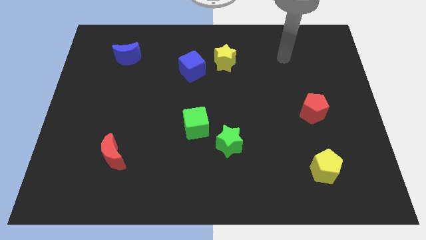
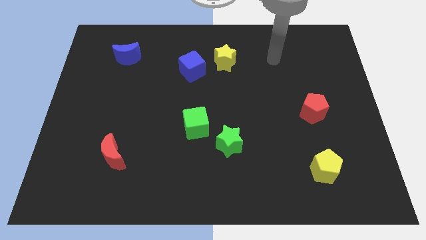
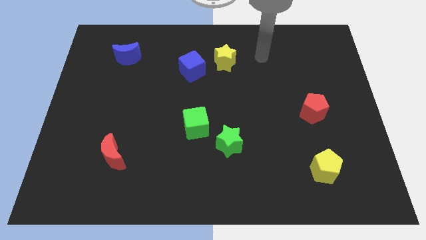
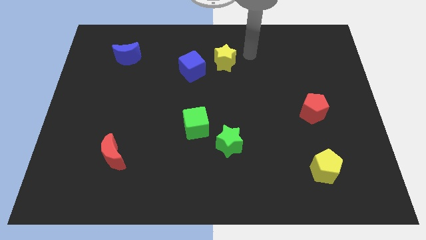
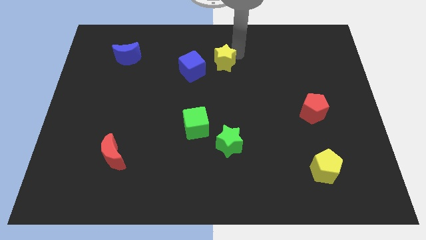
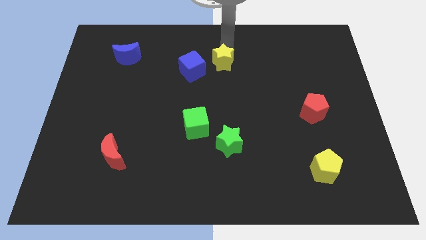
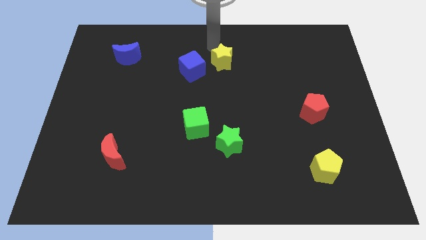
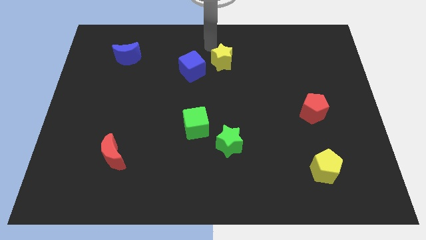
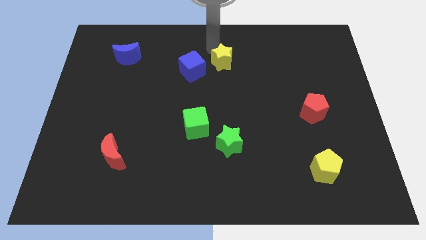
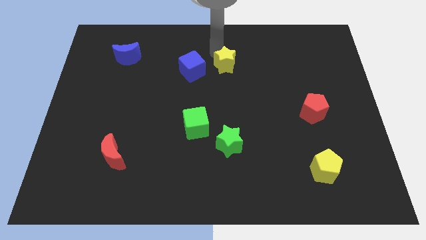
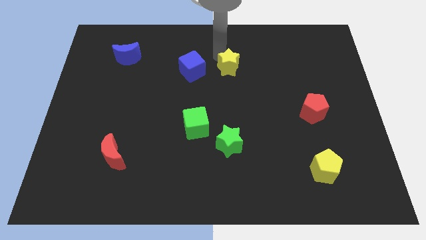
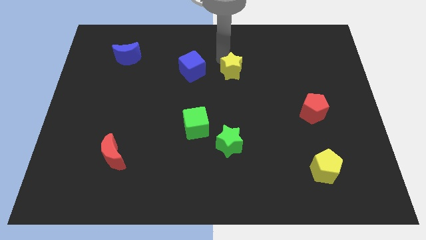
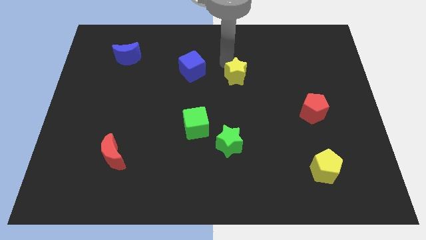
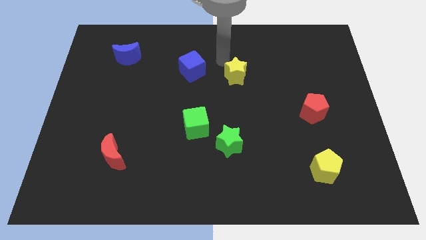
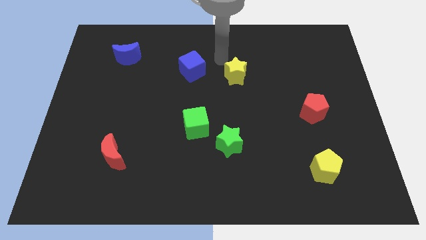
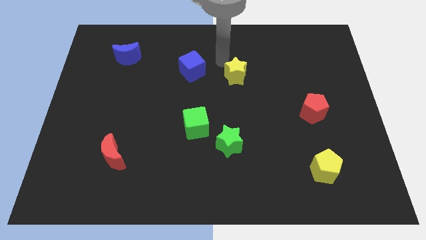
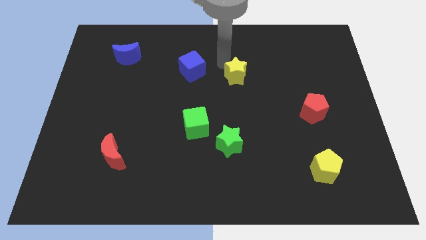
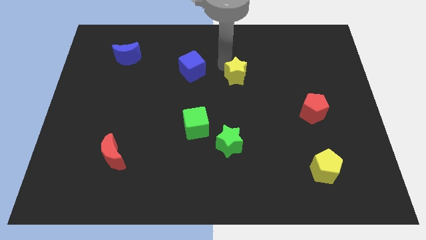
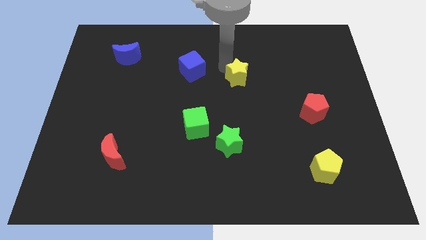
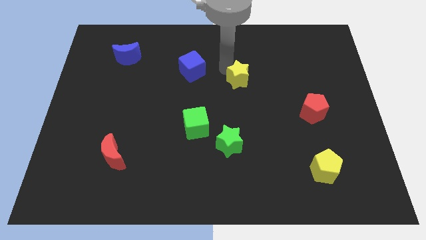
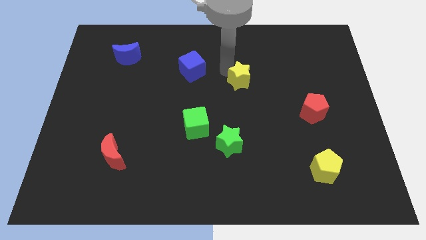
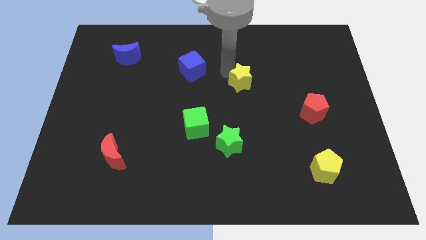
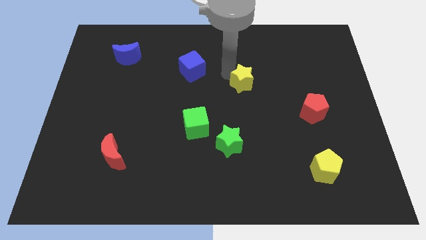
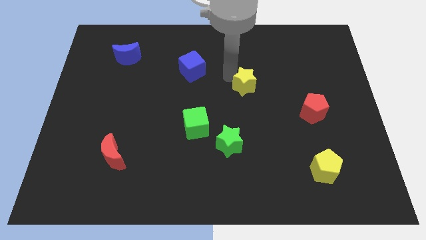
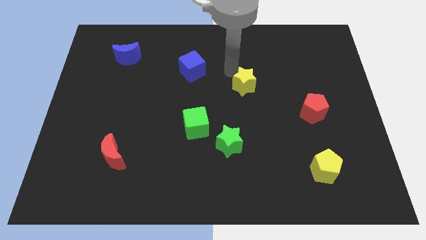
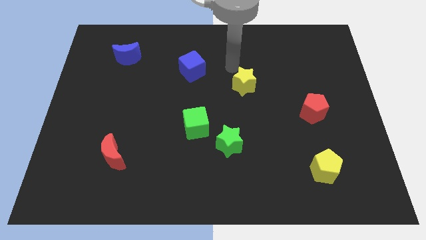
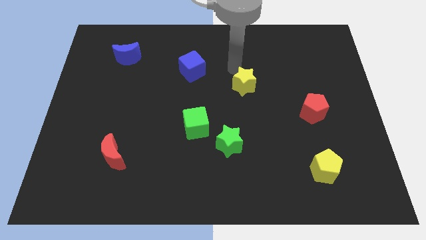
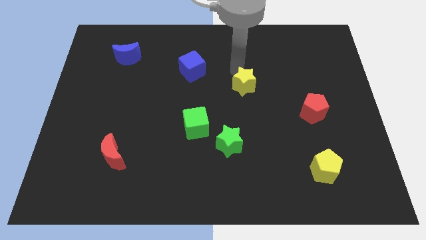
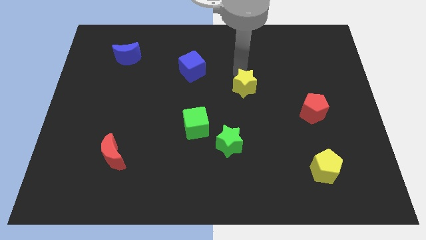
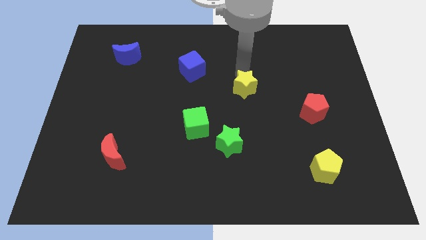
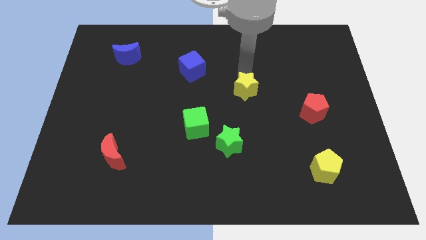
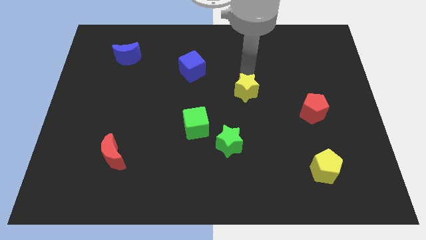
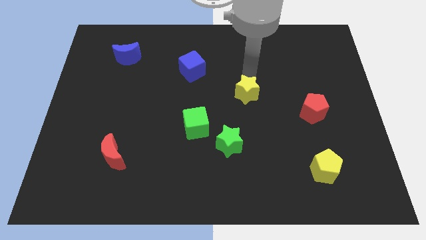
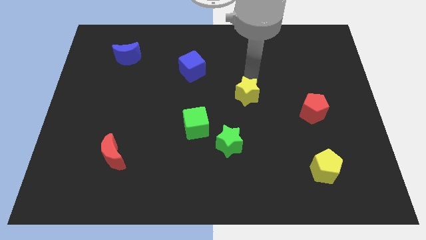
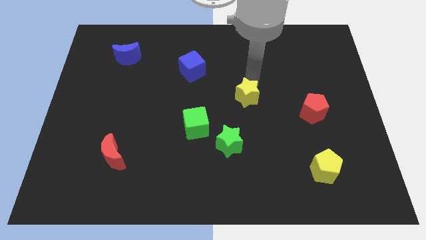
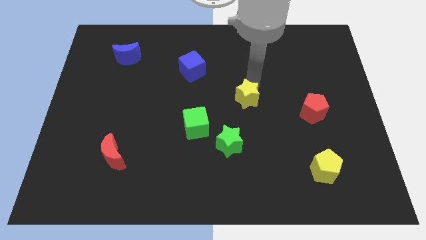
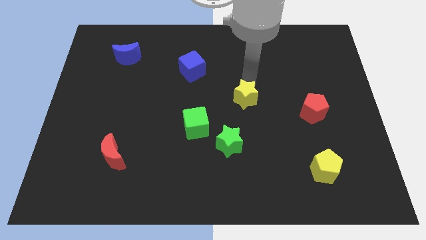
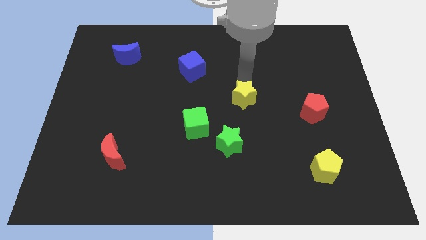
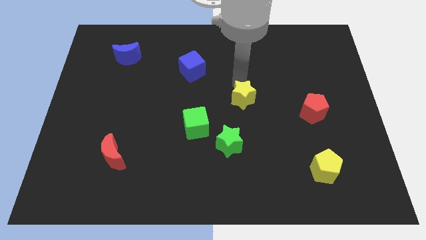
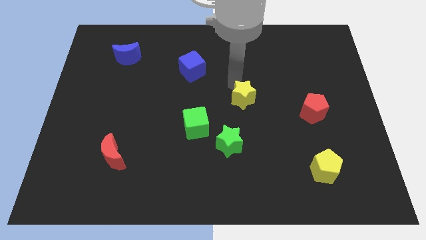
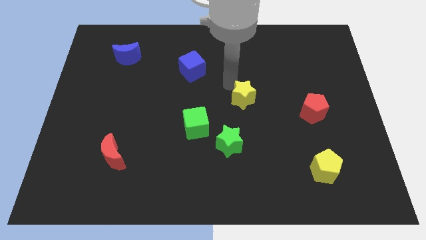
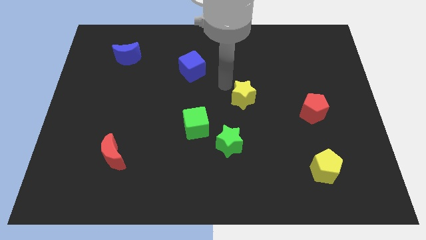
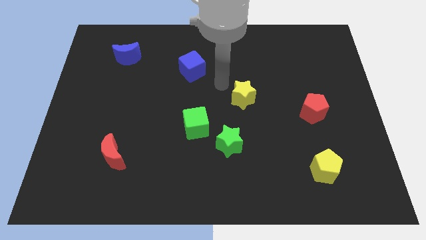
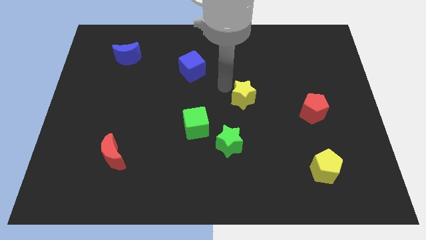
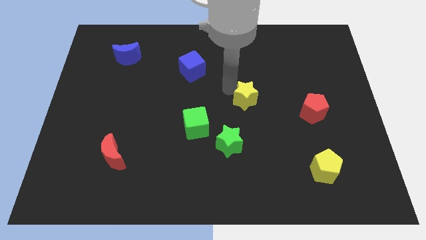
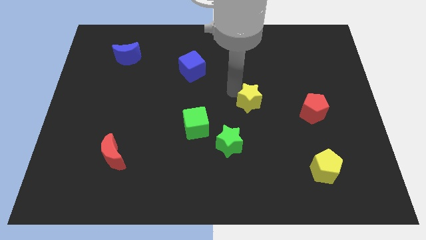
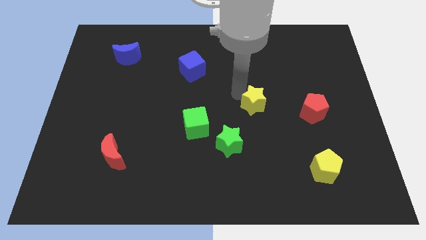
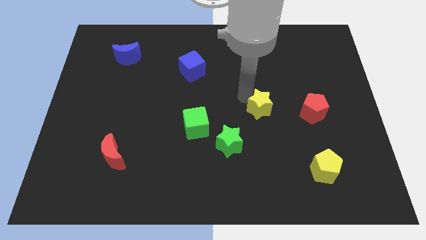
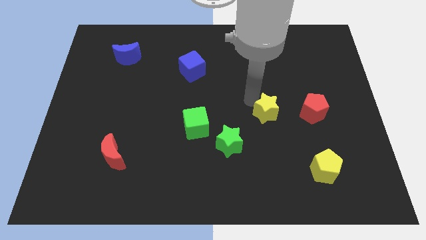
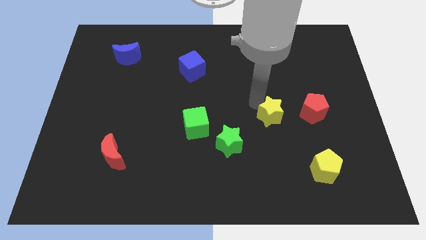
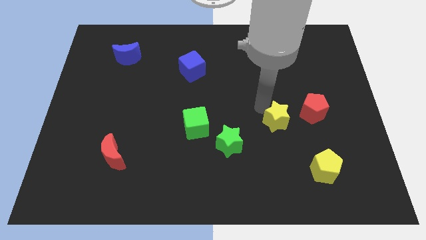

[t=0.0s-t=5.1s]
slide the yellow star to the bottom left side of the red pentagon

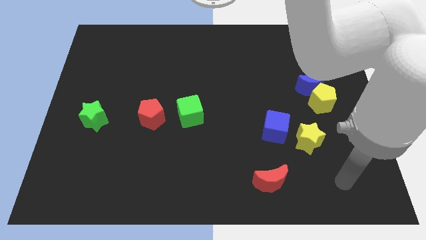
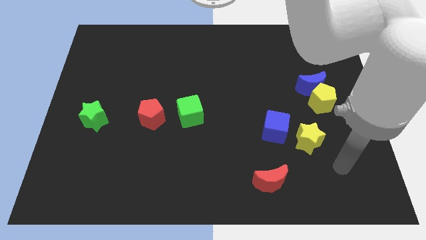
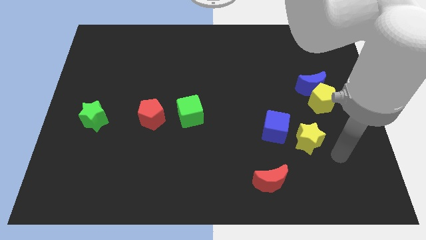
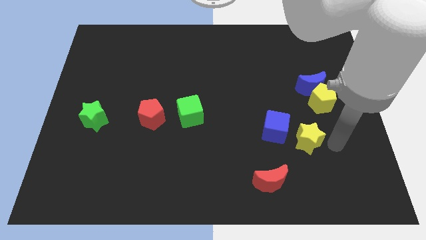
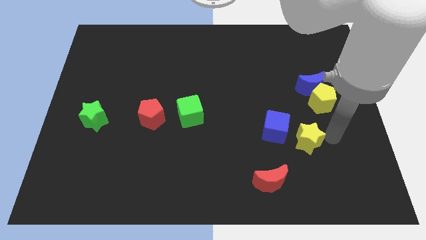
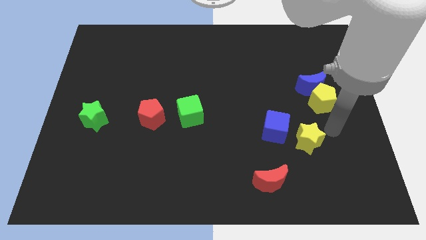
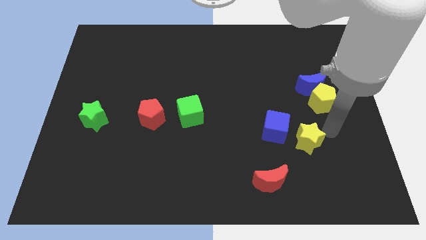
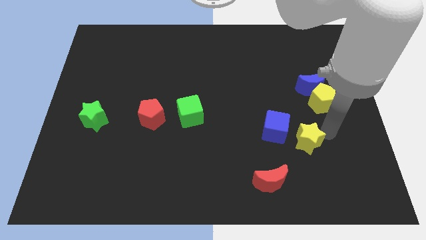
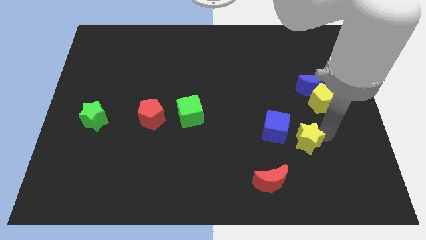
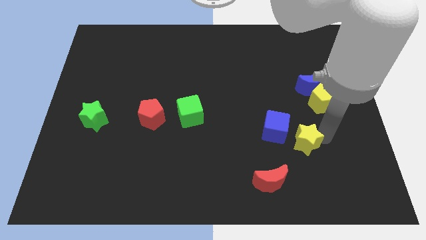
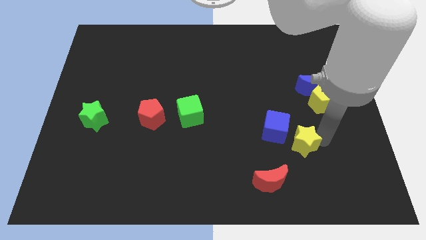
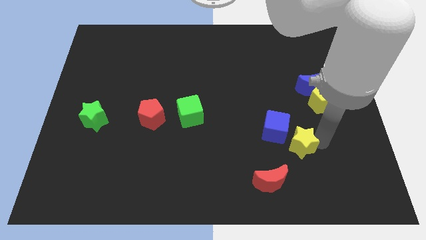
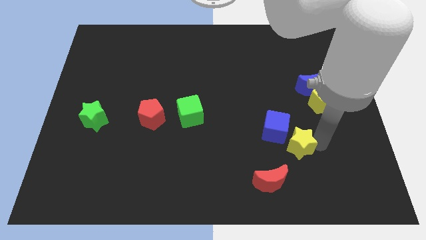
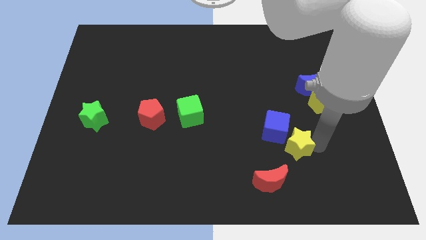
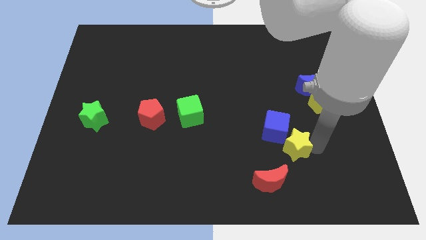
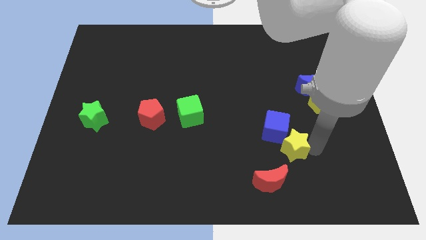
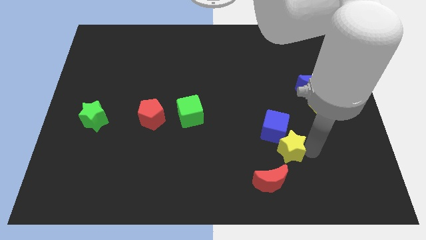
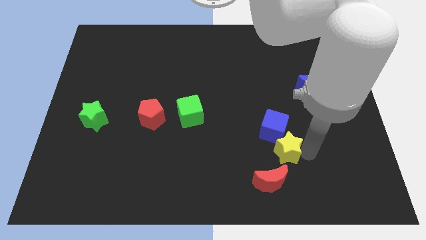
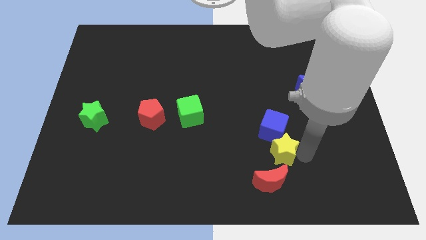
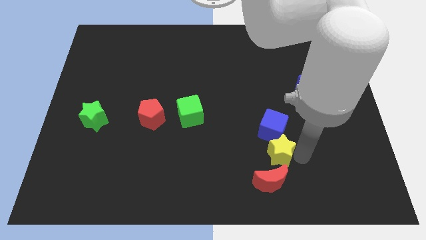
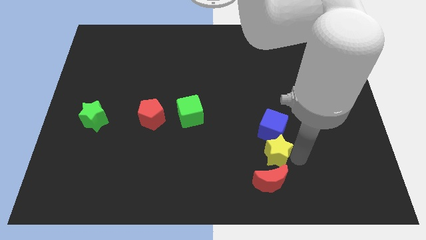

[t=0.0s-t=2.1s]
push the yellow star diagonally down and to the left of the blue cube

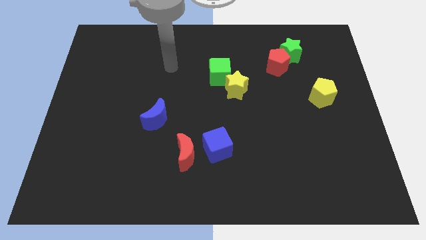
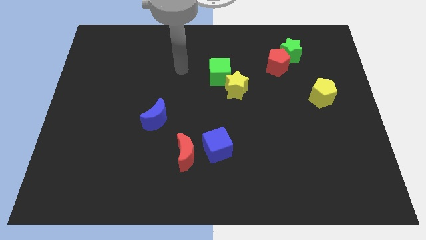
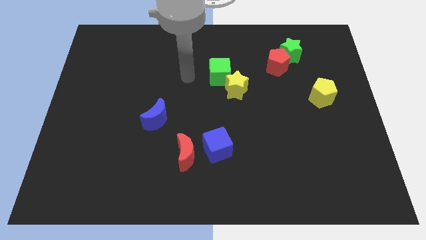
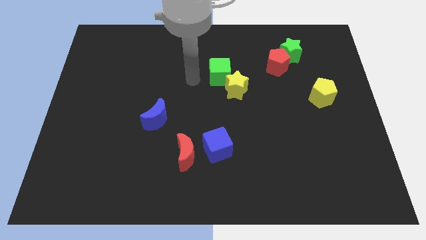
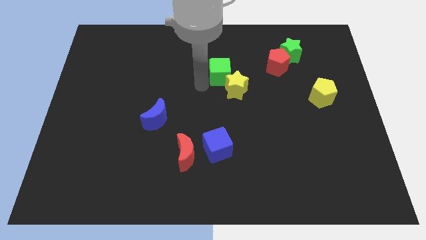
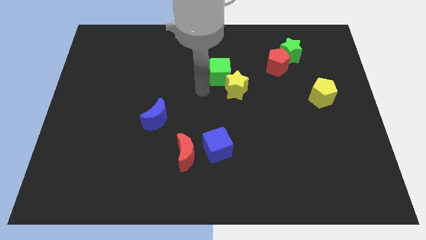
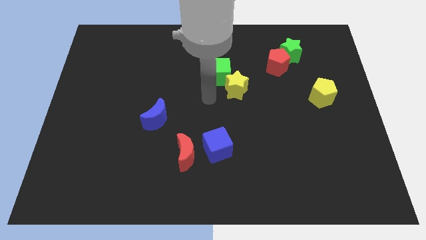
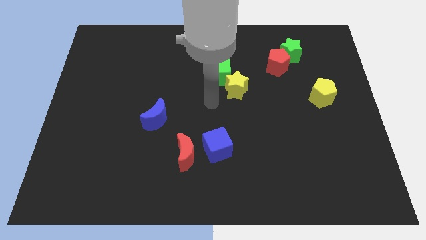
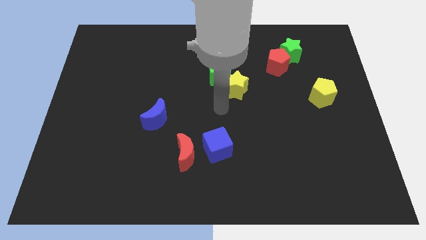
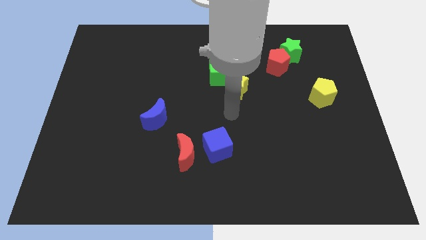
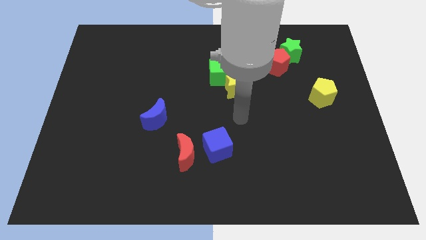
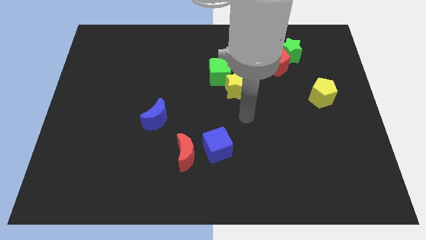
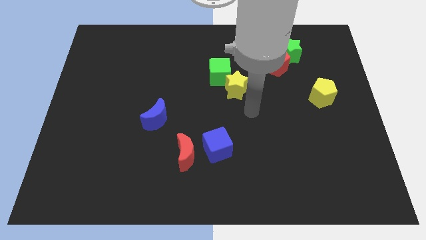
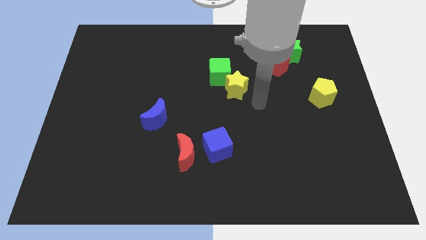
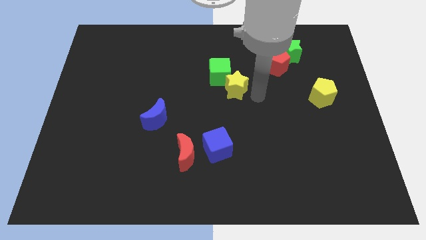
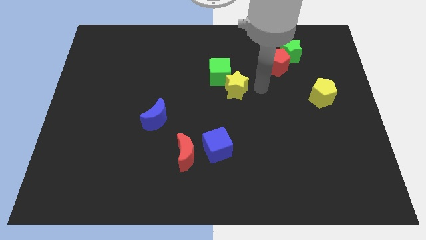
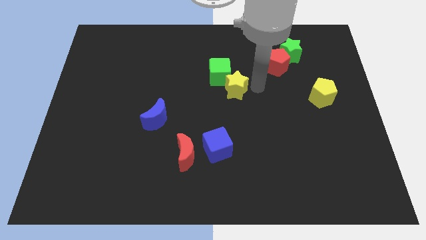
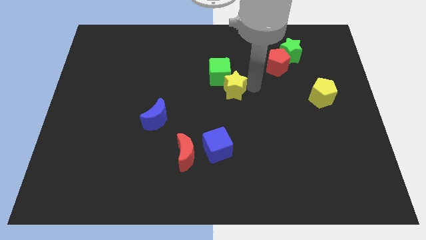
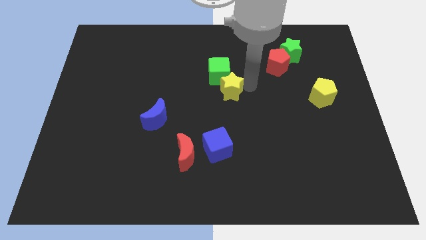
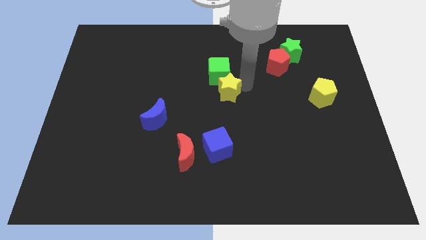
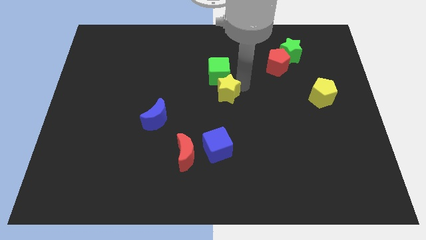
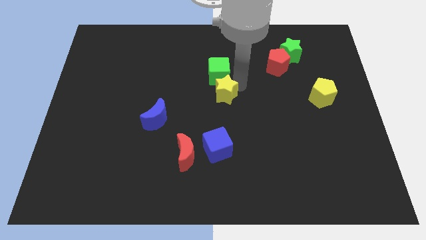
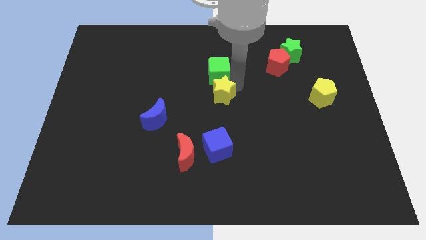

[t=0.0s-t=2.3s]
move the yellow star to the bottom left side of the green cube
